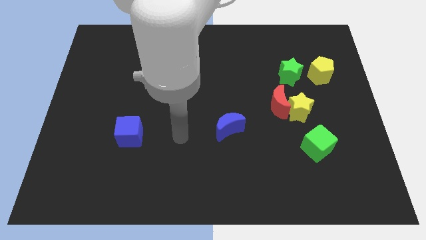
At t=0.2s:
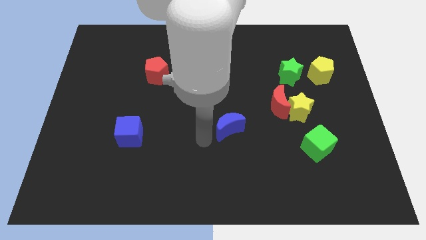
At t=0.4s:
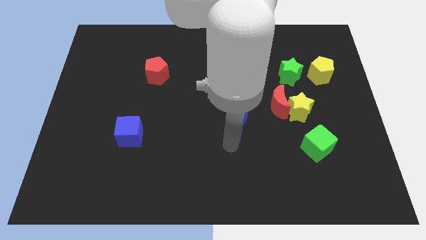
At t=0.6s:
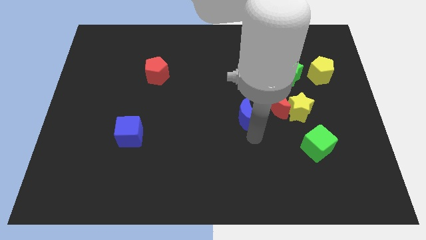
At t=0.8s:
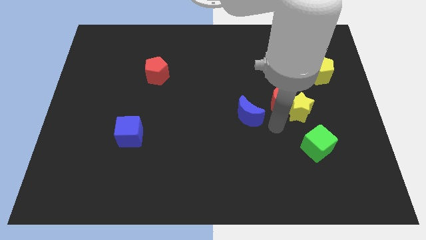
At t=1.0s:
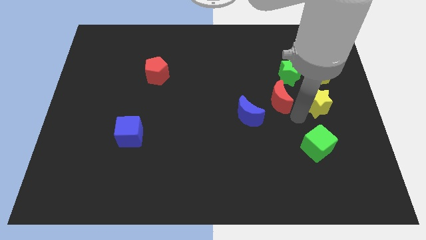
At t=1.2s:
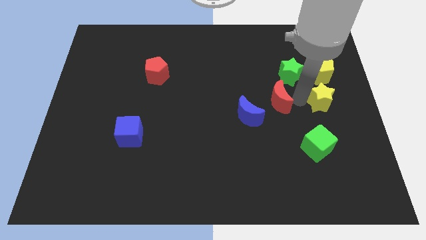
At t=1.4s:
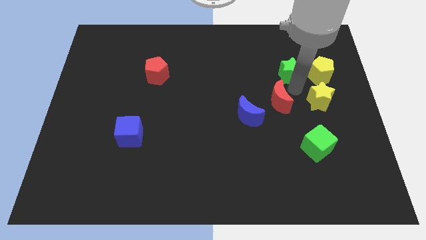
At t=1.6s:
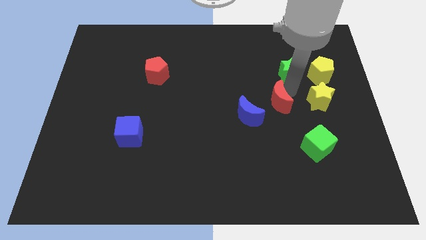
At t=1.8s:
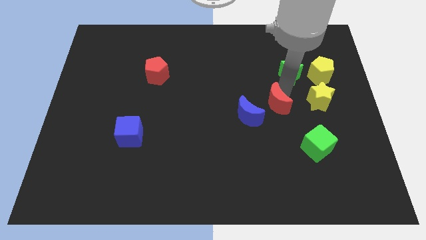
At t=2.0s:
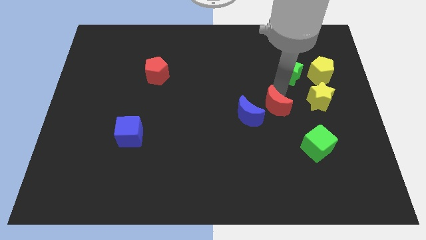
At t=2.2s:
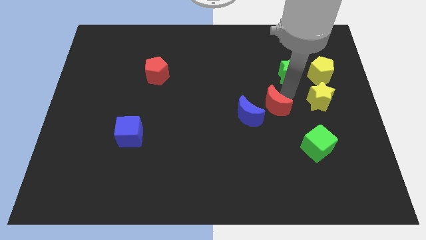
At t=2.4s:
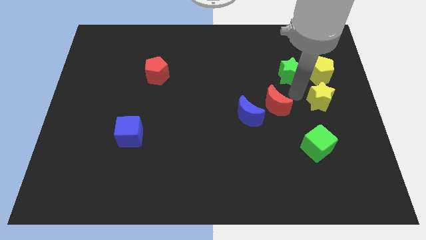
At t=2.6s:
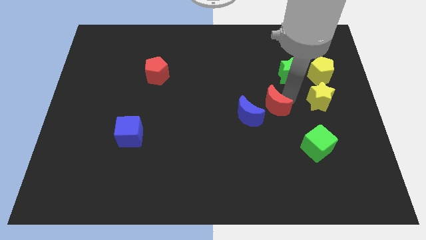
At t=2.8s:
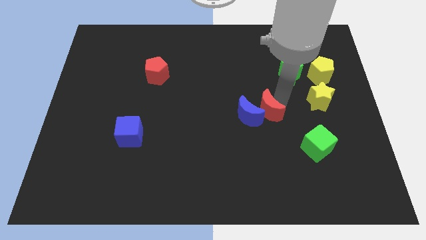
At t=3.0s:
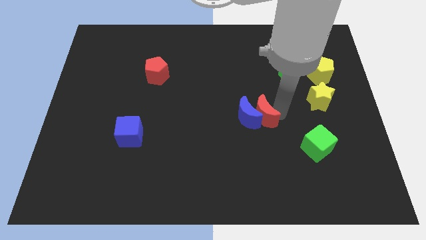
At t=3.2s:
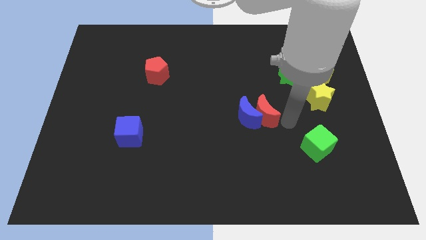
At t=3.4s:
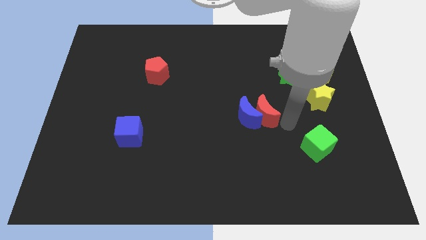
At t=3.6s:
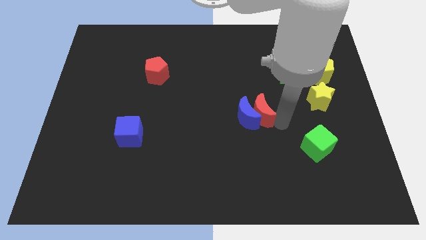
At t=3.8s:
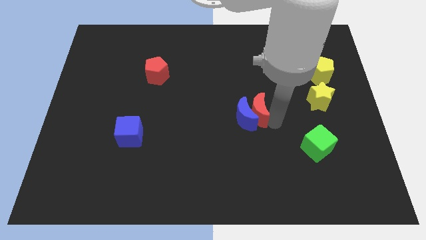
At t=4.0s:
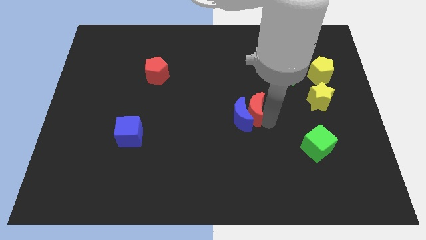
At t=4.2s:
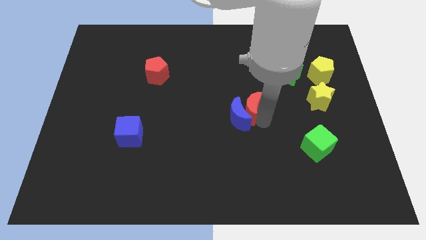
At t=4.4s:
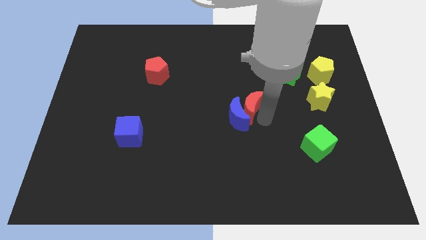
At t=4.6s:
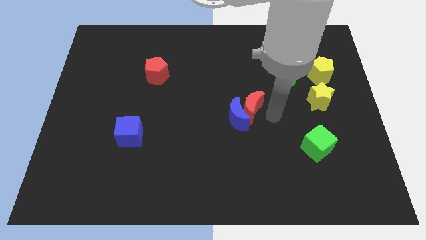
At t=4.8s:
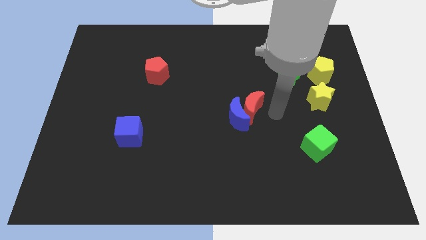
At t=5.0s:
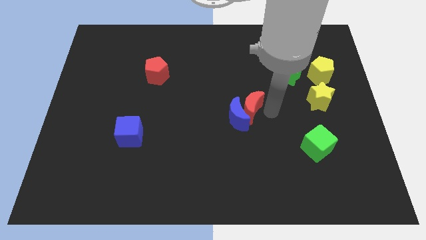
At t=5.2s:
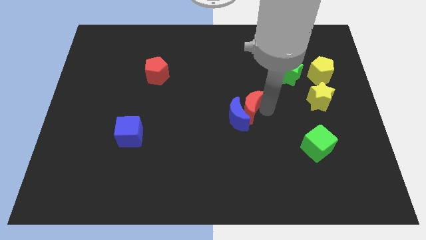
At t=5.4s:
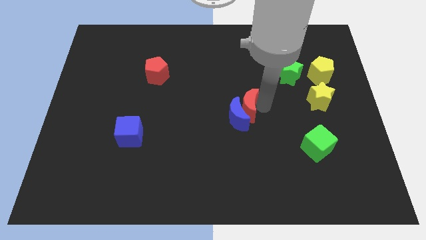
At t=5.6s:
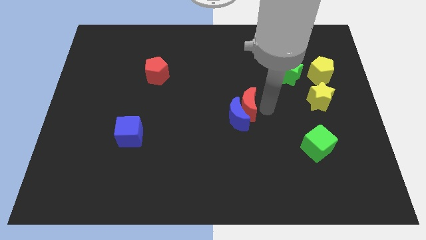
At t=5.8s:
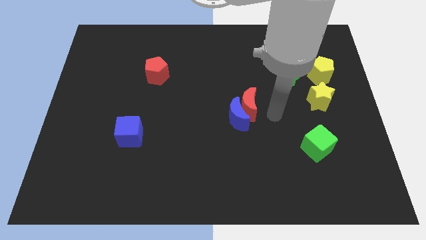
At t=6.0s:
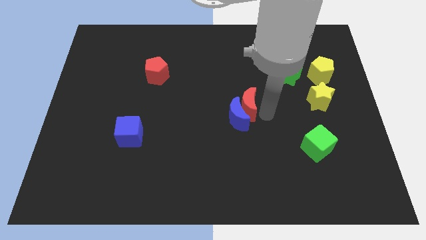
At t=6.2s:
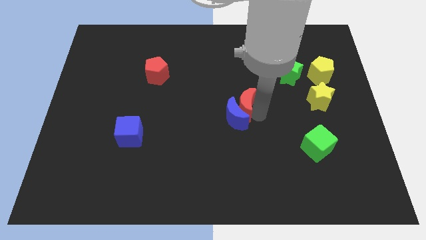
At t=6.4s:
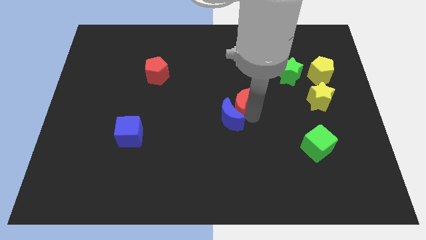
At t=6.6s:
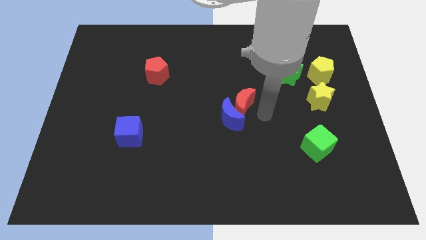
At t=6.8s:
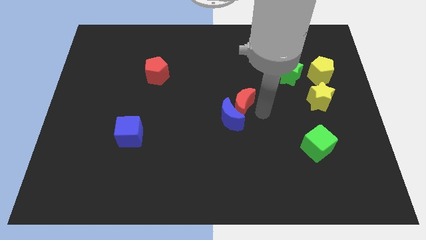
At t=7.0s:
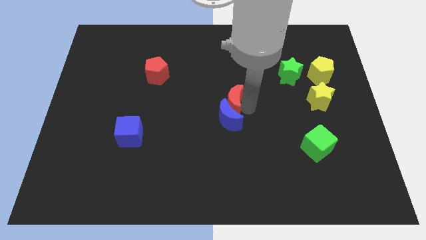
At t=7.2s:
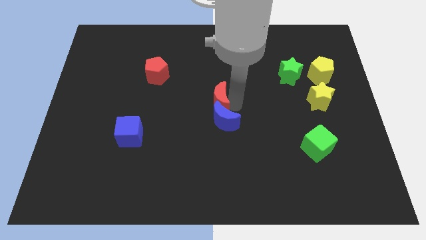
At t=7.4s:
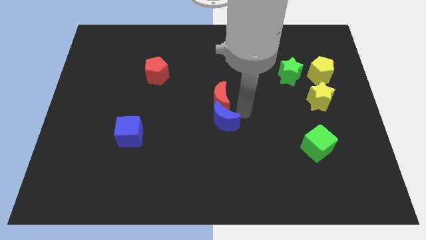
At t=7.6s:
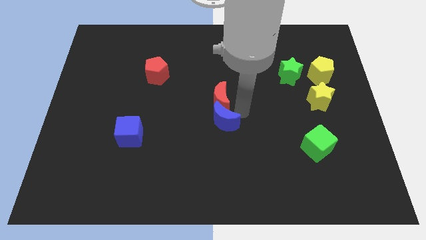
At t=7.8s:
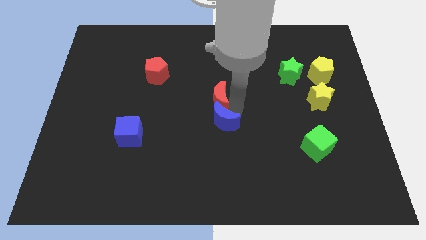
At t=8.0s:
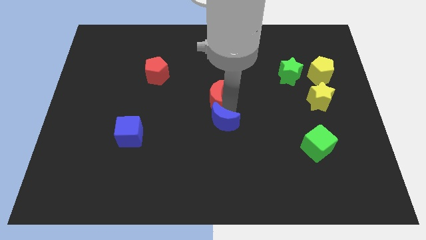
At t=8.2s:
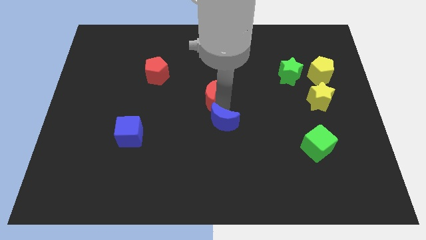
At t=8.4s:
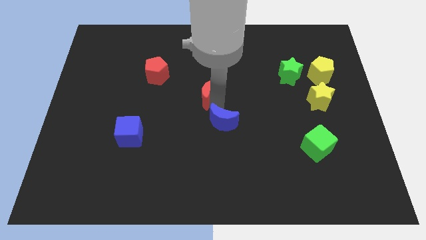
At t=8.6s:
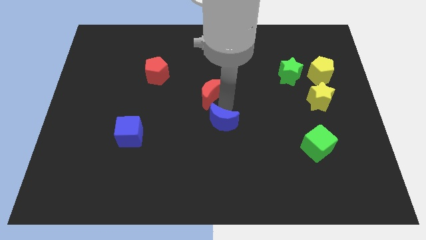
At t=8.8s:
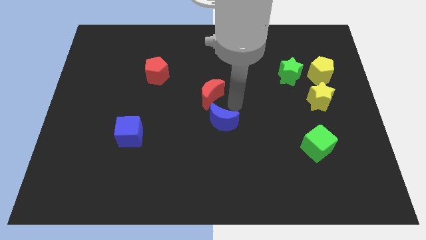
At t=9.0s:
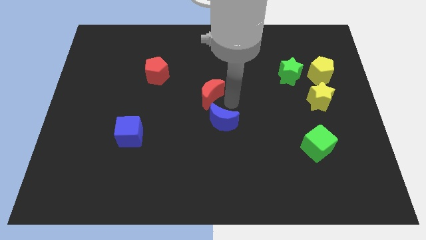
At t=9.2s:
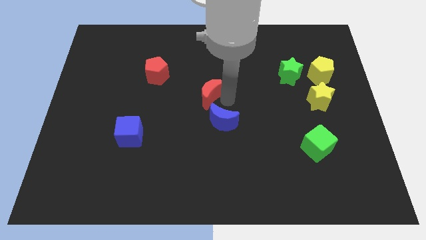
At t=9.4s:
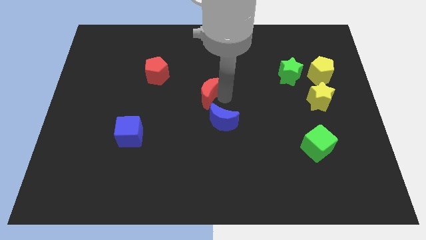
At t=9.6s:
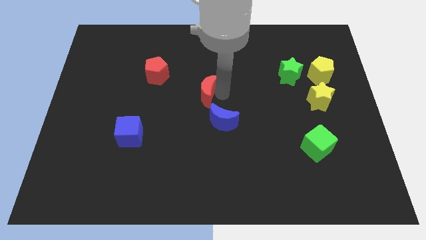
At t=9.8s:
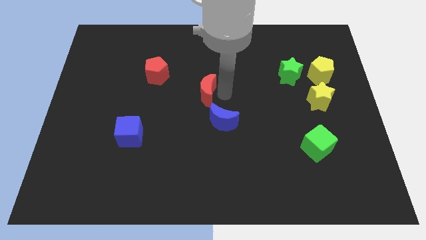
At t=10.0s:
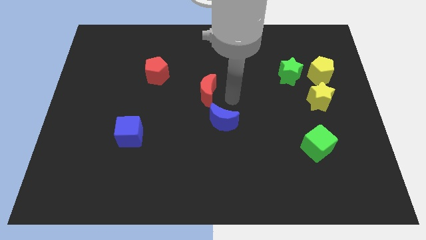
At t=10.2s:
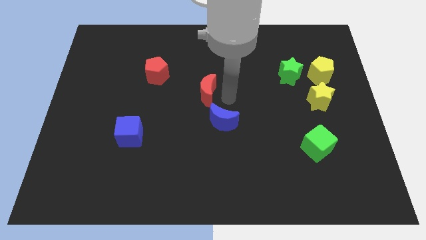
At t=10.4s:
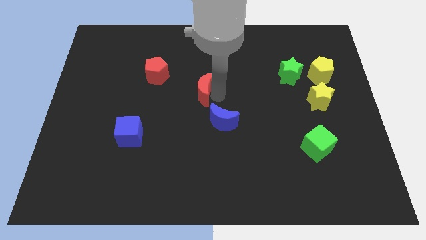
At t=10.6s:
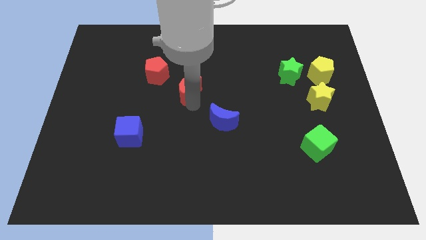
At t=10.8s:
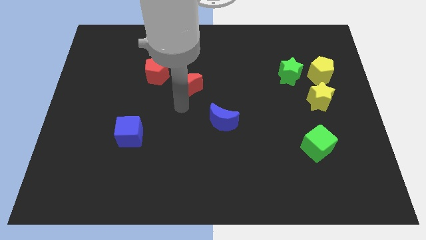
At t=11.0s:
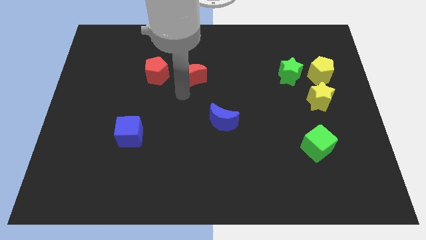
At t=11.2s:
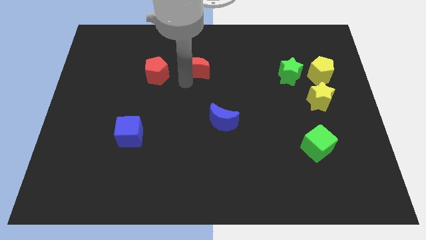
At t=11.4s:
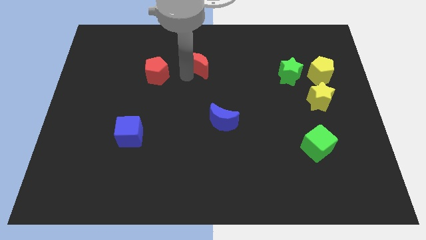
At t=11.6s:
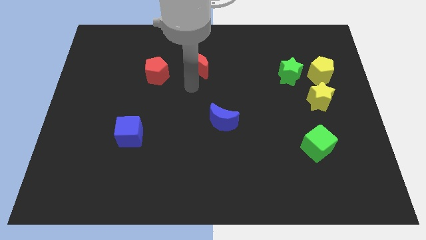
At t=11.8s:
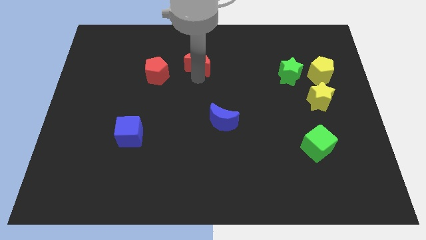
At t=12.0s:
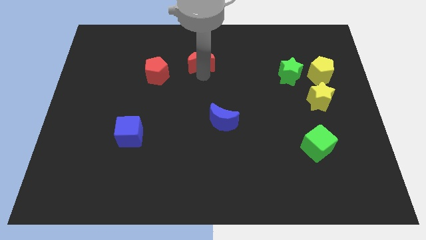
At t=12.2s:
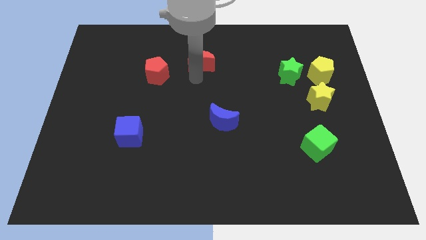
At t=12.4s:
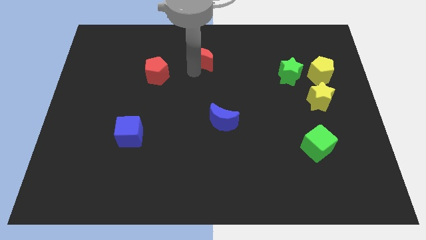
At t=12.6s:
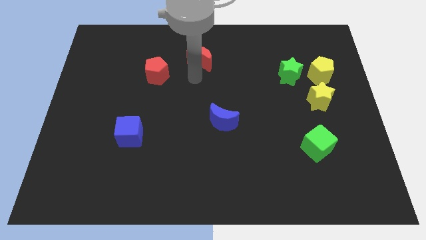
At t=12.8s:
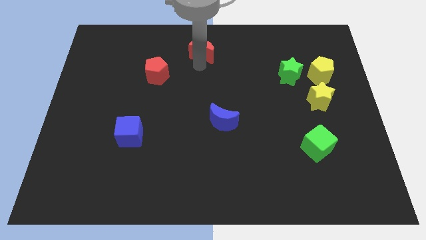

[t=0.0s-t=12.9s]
slide the red moon to the towards your base
